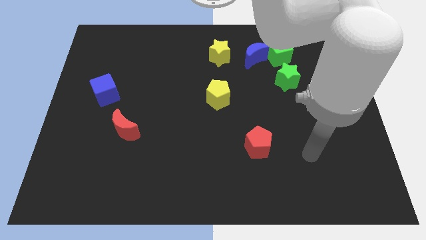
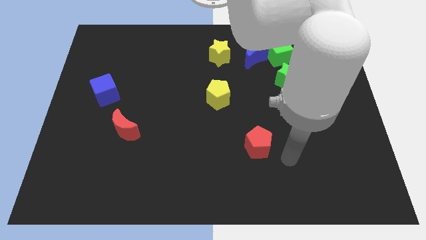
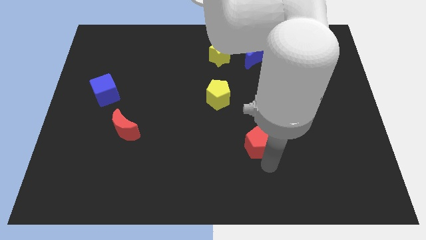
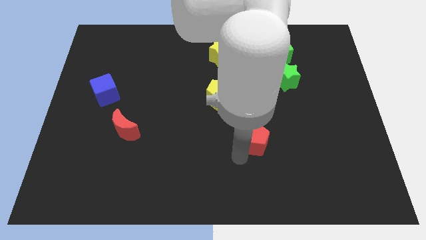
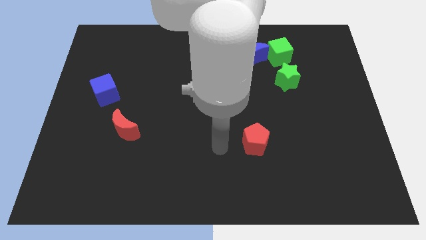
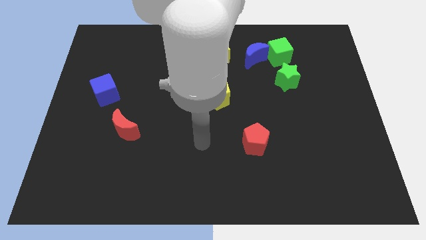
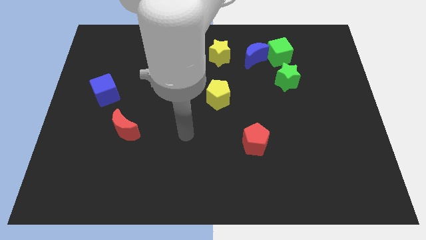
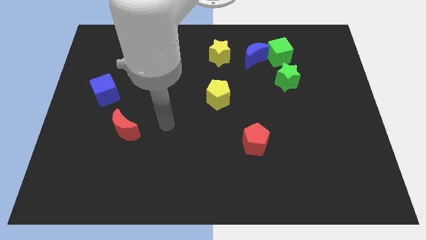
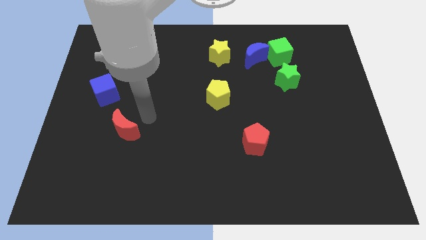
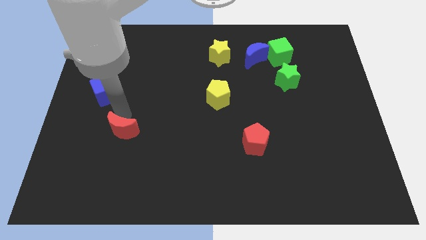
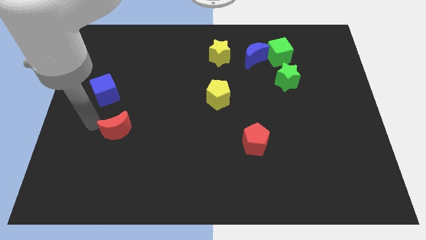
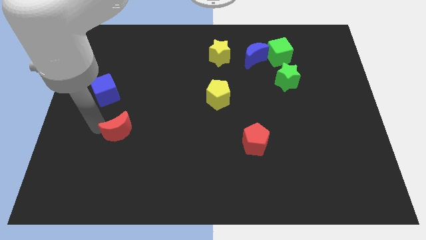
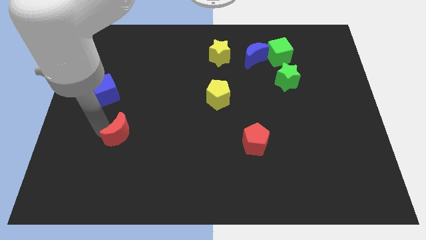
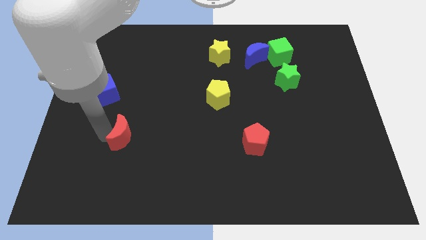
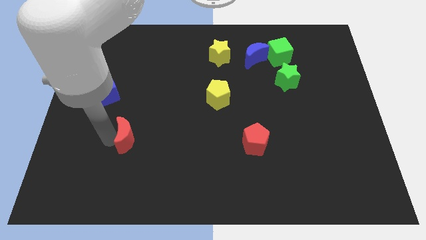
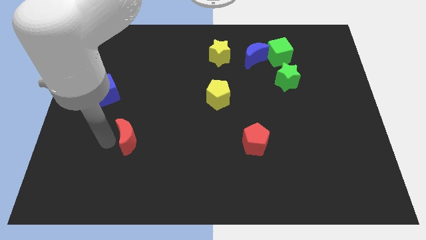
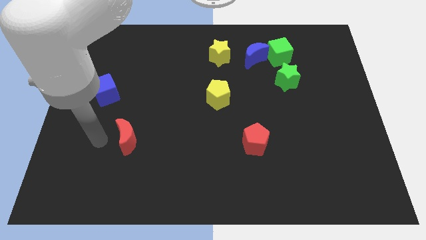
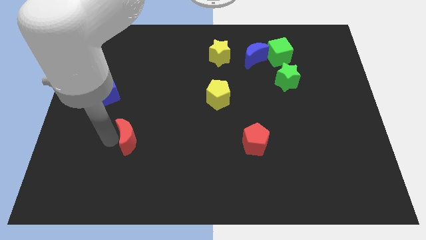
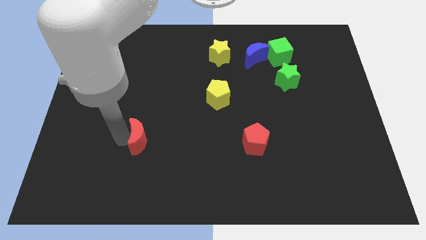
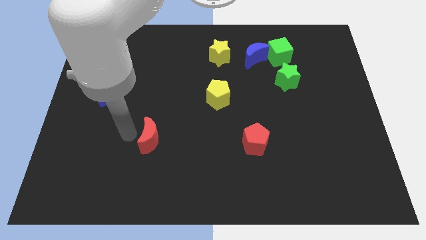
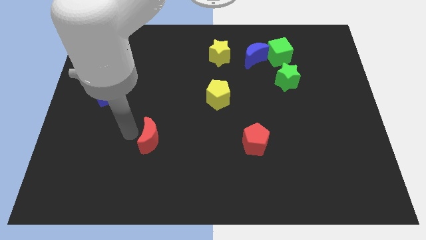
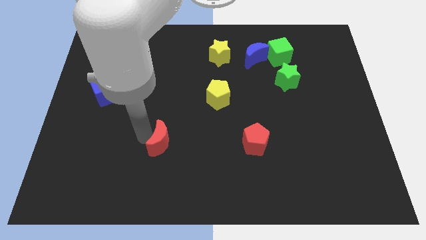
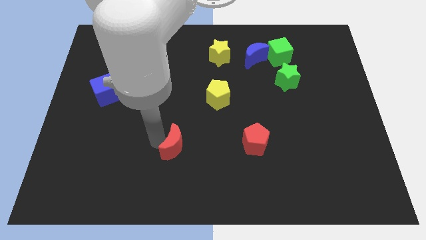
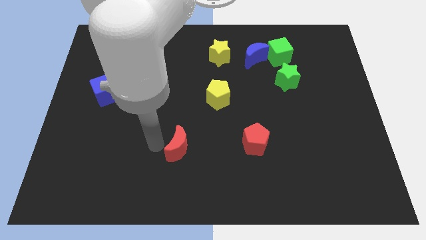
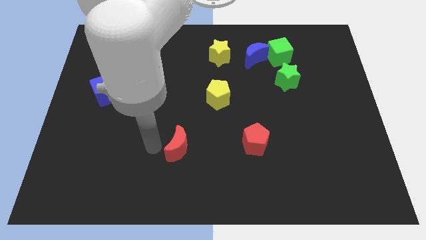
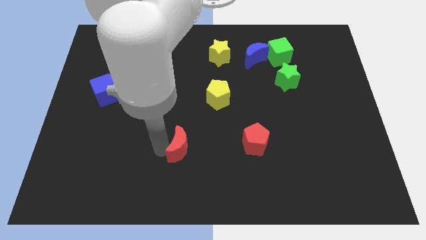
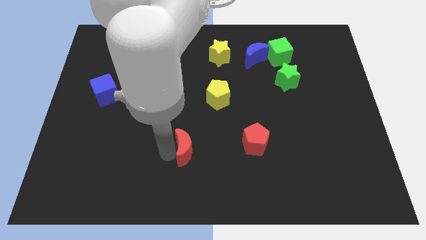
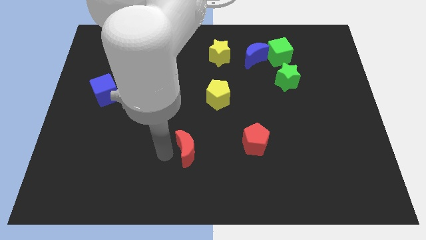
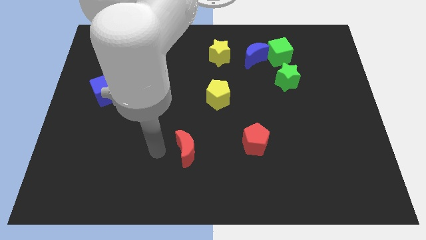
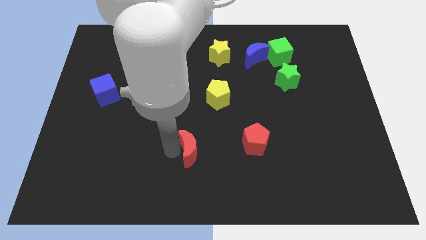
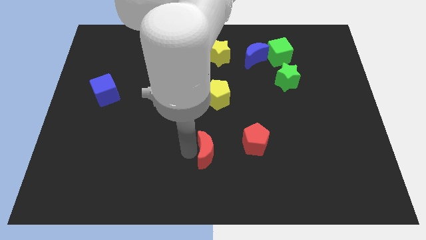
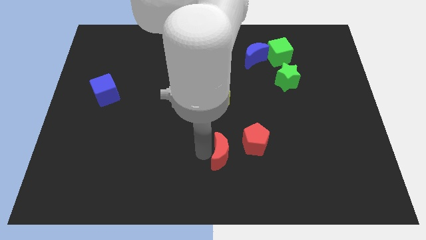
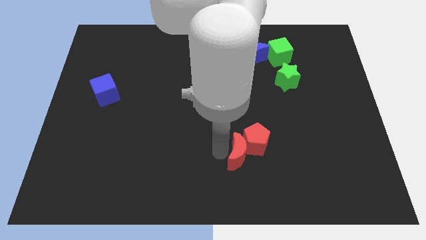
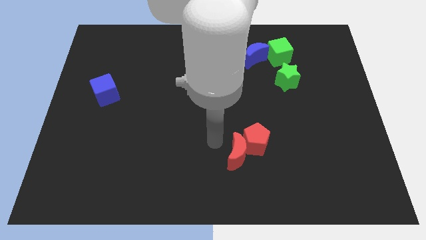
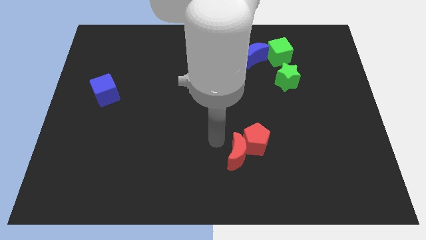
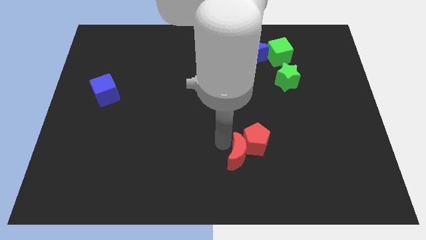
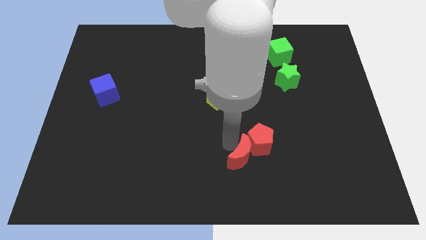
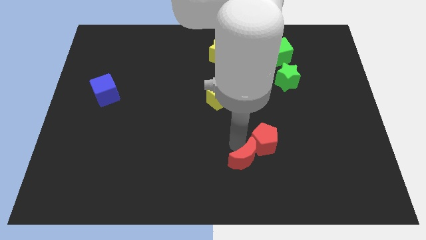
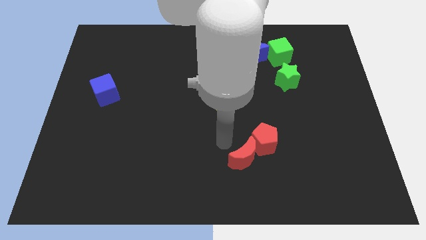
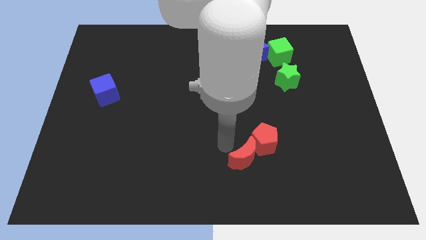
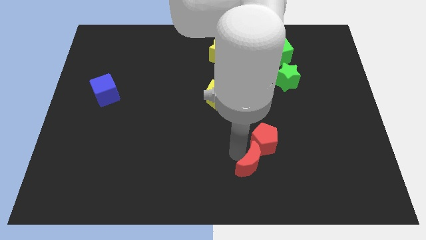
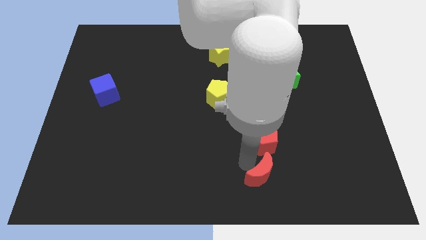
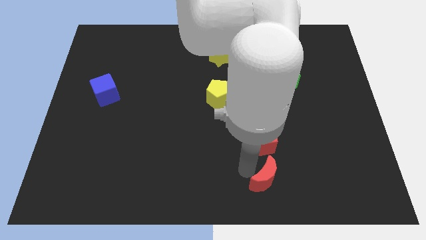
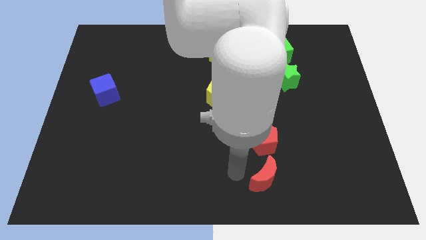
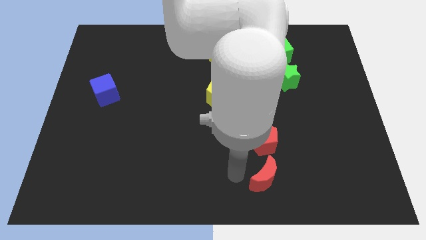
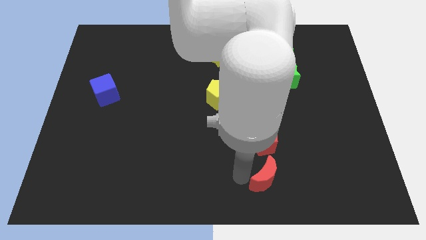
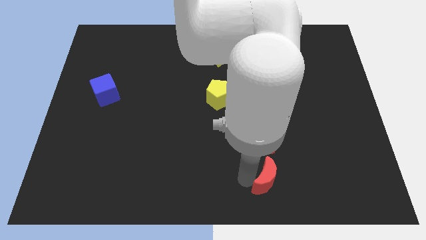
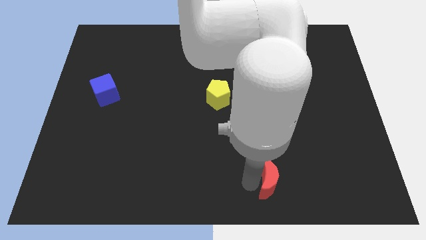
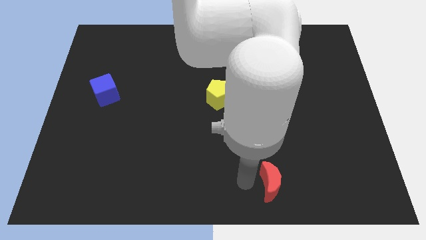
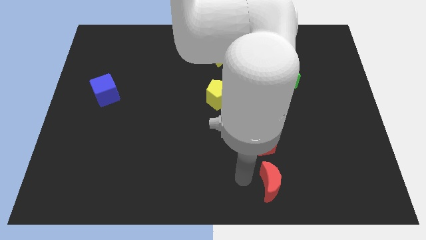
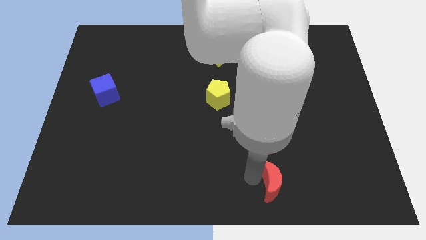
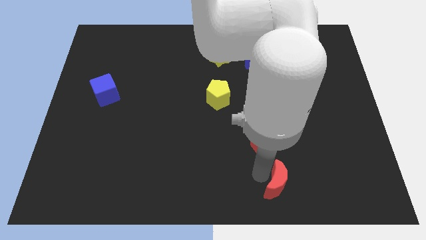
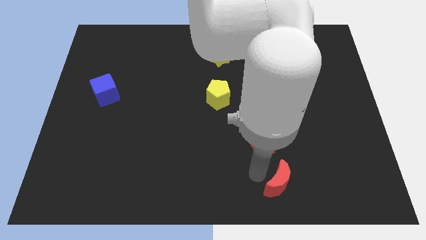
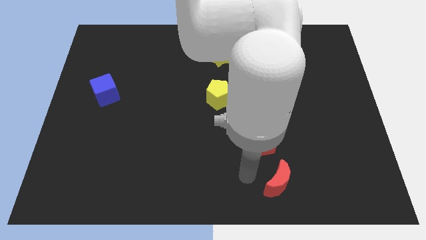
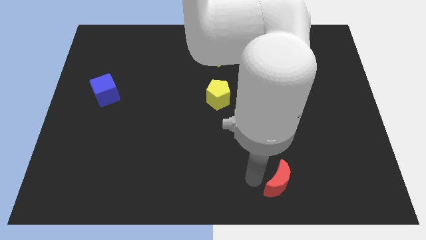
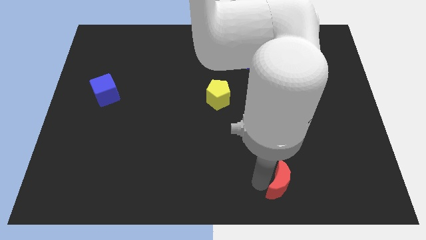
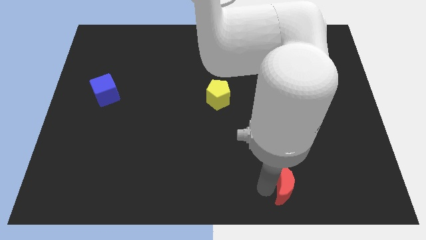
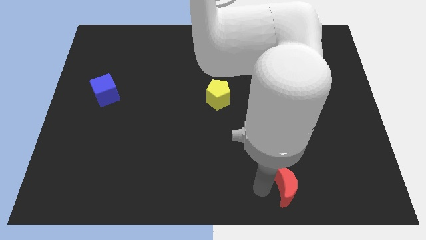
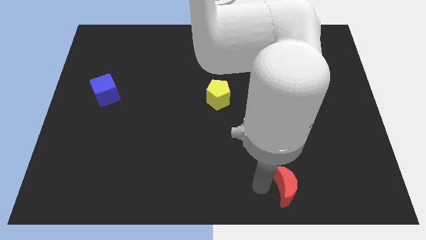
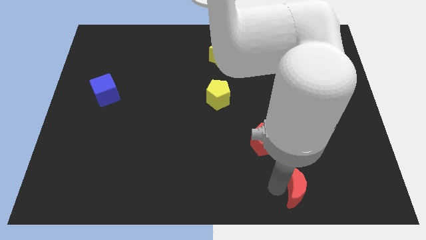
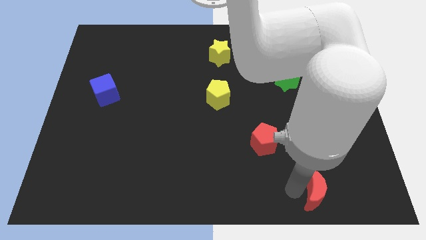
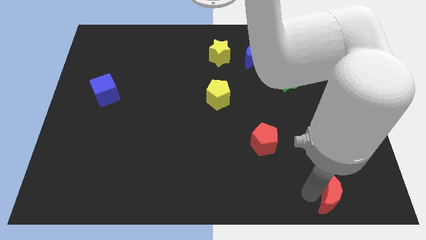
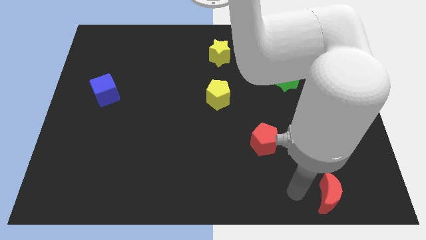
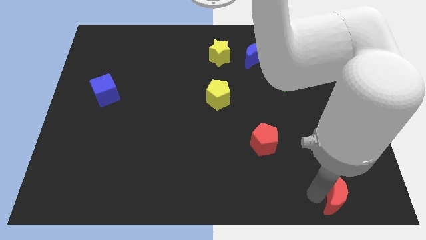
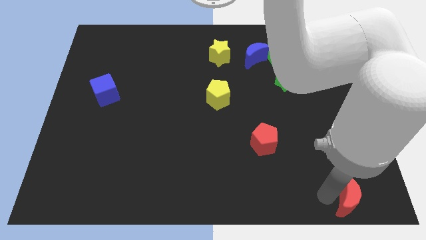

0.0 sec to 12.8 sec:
slide the red moon to the bottom right corner
